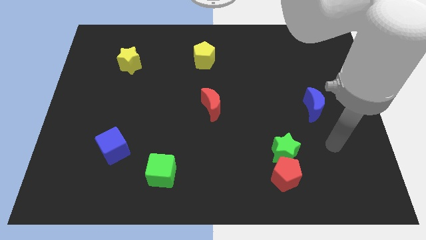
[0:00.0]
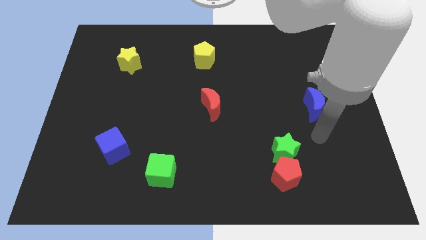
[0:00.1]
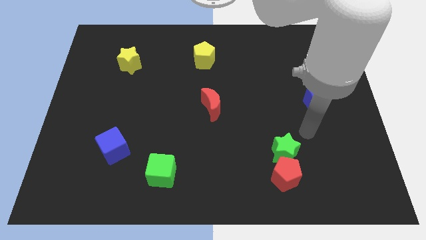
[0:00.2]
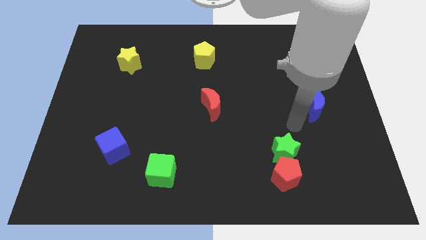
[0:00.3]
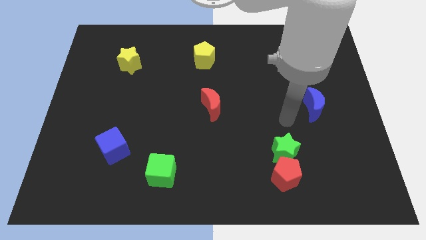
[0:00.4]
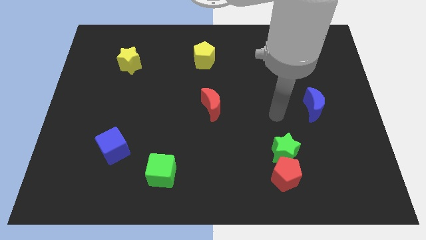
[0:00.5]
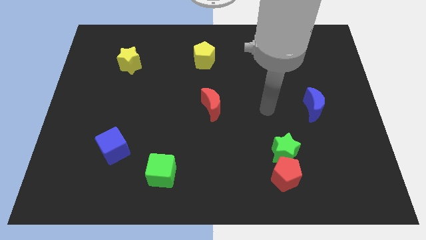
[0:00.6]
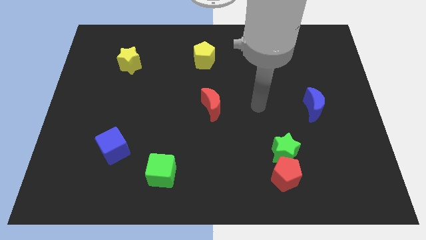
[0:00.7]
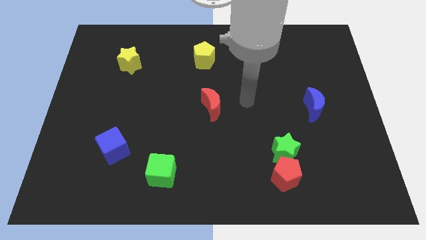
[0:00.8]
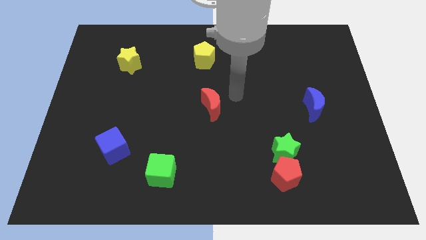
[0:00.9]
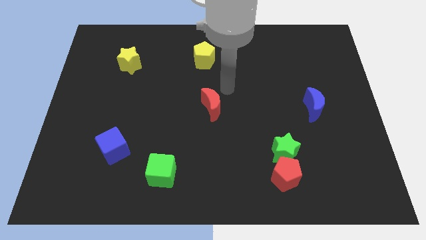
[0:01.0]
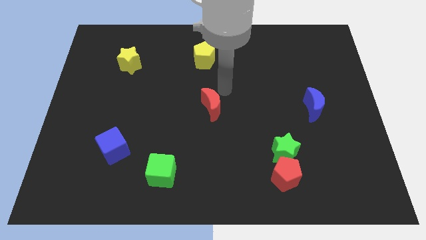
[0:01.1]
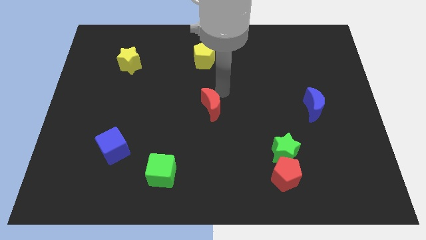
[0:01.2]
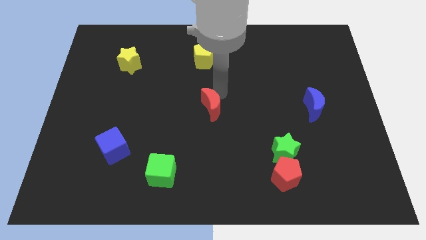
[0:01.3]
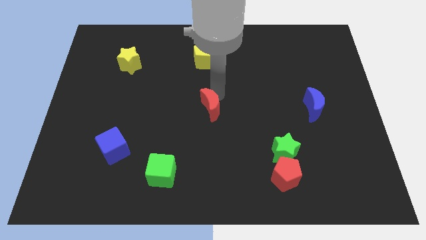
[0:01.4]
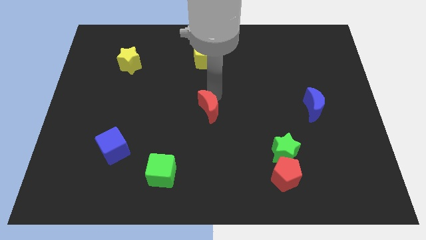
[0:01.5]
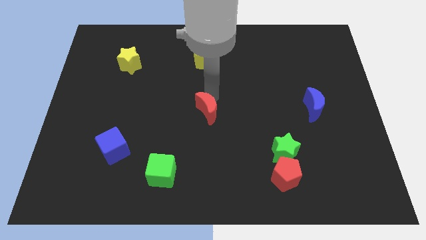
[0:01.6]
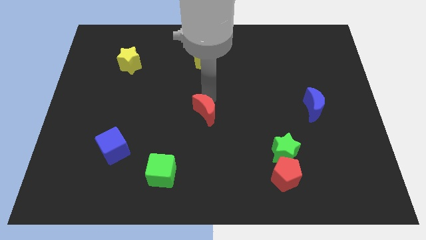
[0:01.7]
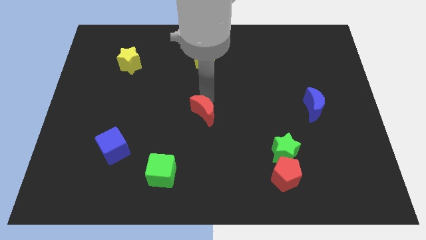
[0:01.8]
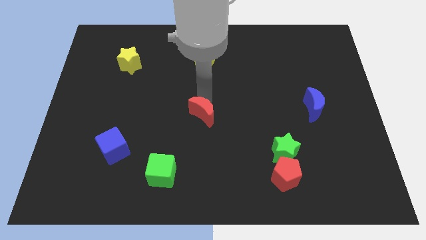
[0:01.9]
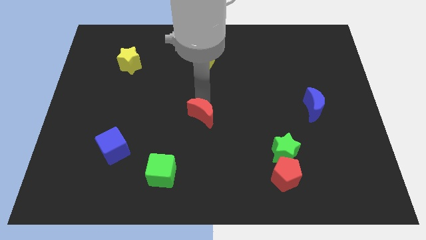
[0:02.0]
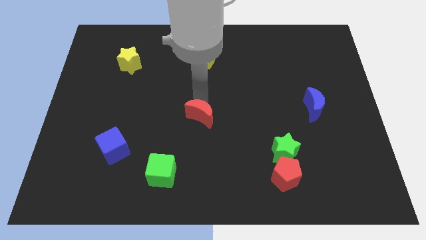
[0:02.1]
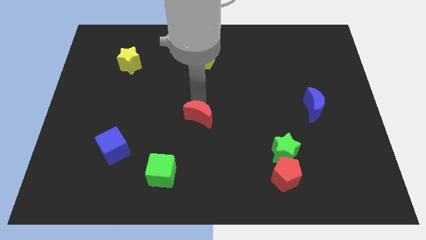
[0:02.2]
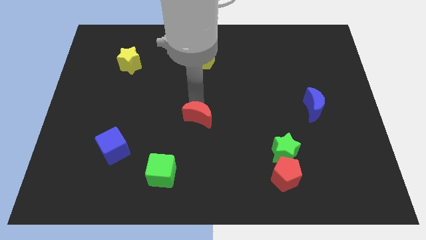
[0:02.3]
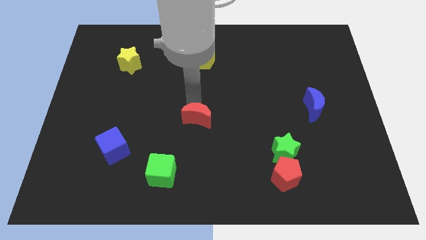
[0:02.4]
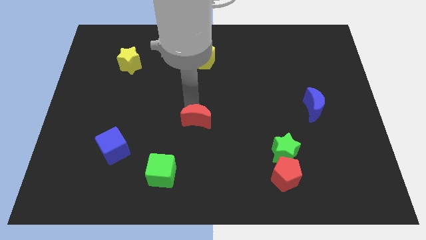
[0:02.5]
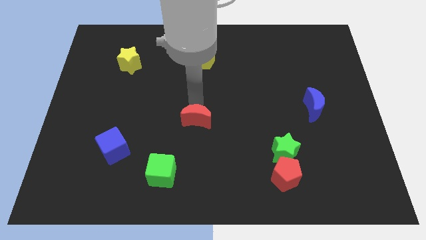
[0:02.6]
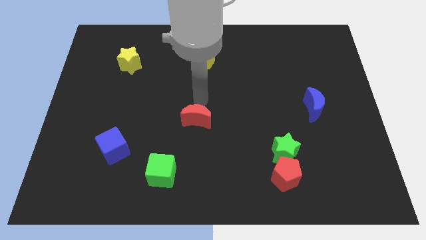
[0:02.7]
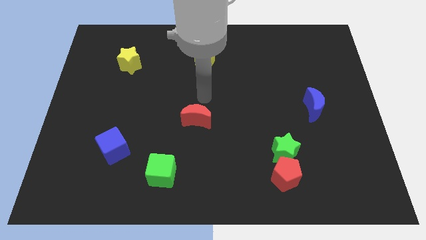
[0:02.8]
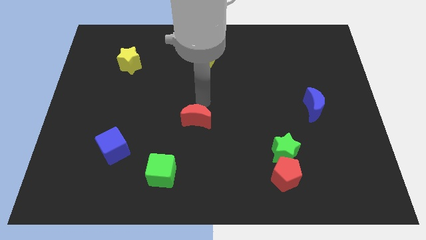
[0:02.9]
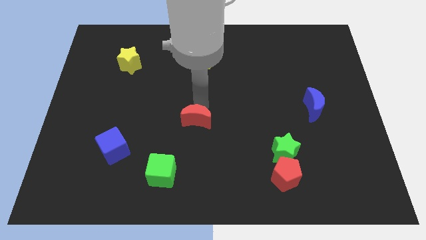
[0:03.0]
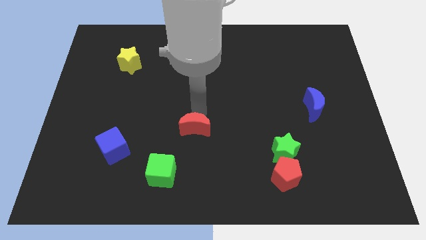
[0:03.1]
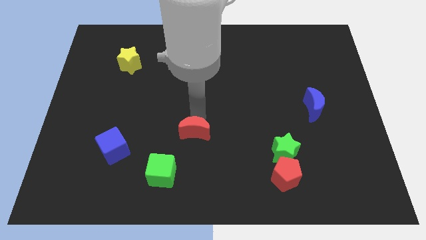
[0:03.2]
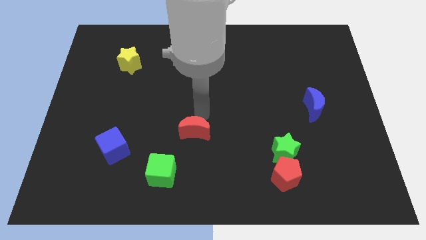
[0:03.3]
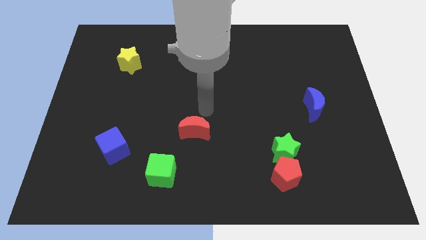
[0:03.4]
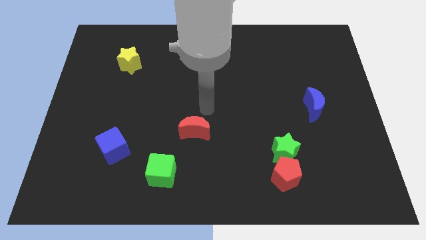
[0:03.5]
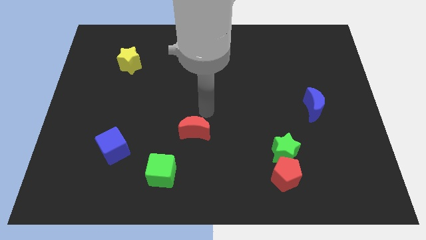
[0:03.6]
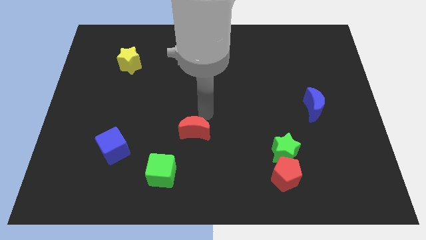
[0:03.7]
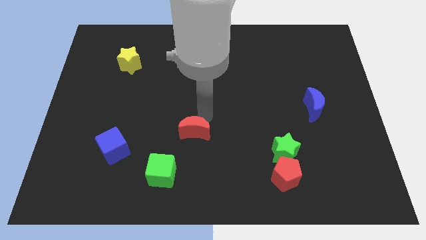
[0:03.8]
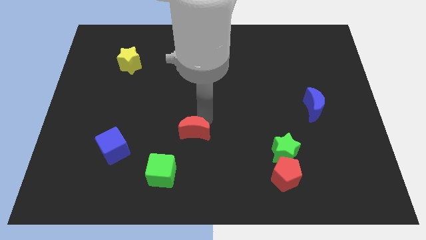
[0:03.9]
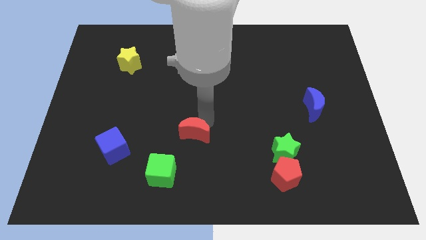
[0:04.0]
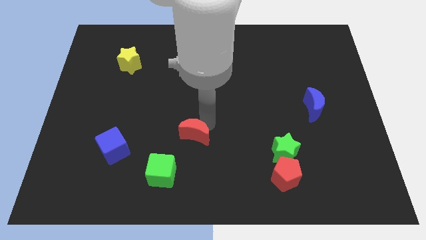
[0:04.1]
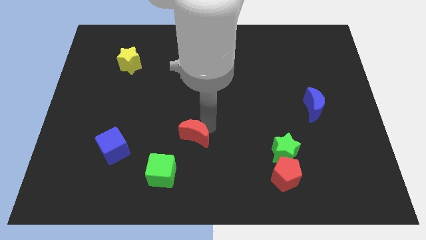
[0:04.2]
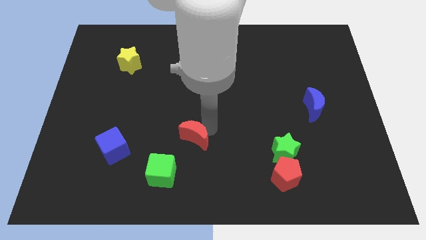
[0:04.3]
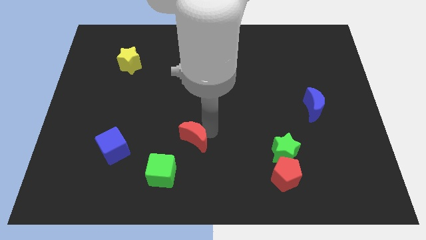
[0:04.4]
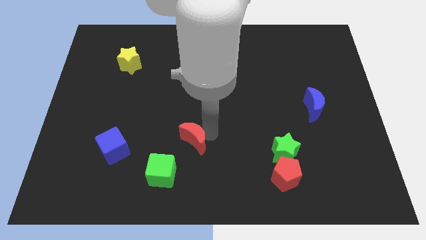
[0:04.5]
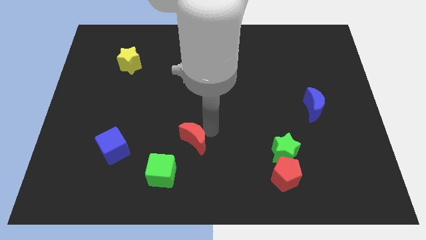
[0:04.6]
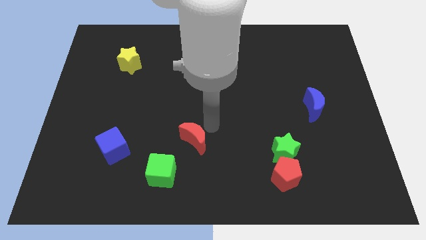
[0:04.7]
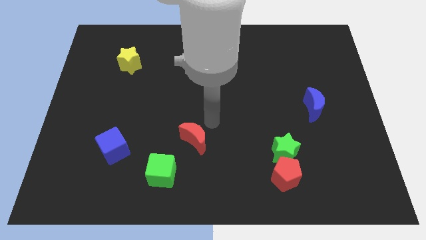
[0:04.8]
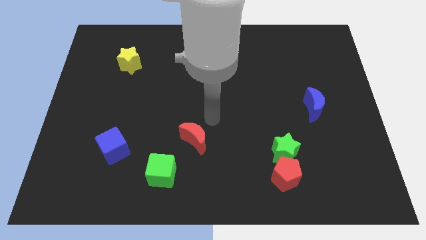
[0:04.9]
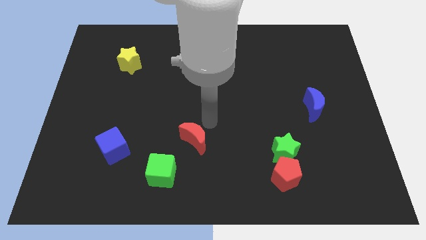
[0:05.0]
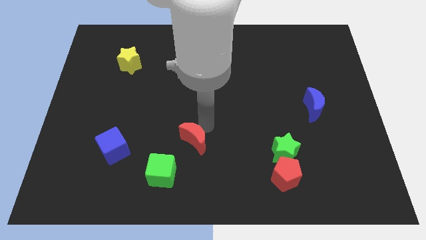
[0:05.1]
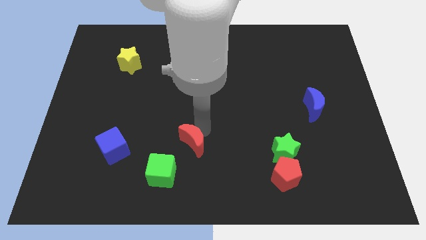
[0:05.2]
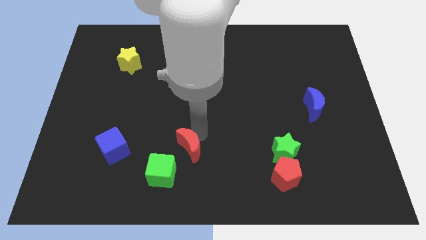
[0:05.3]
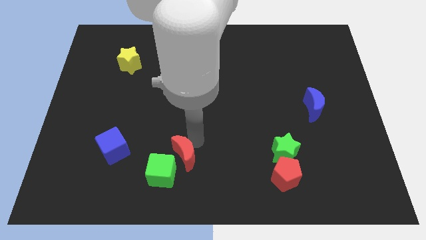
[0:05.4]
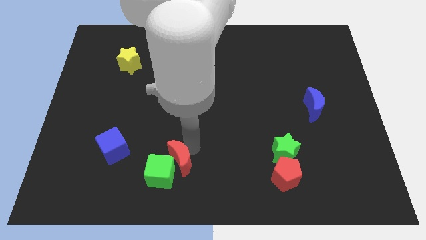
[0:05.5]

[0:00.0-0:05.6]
move the red moon close to the green cube
